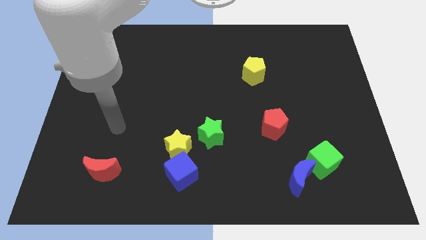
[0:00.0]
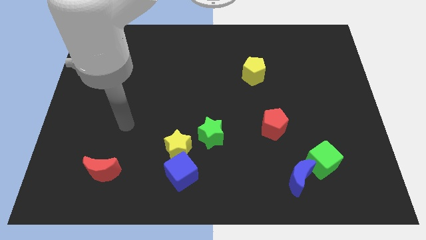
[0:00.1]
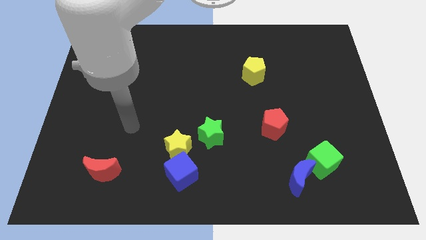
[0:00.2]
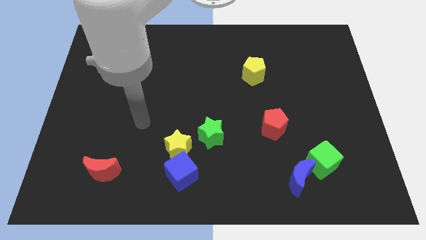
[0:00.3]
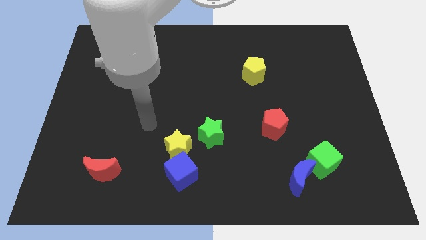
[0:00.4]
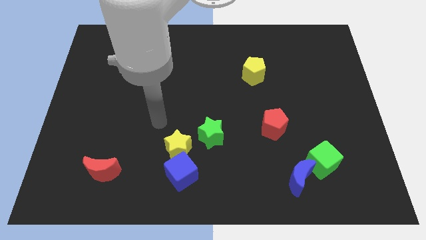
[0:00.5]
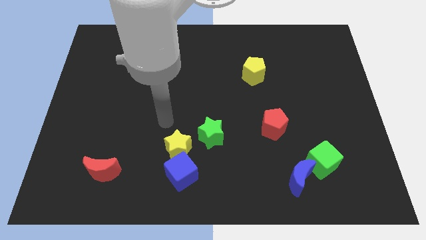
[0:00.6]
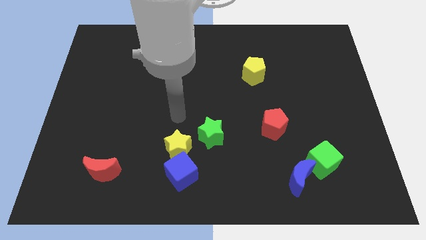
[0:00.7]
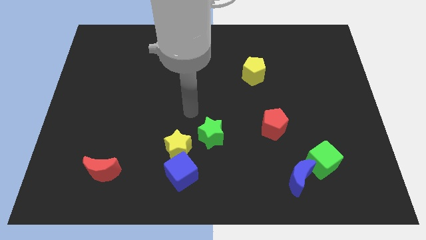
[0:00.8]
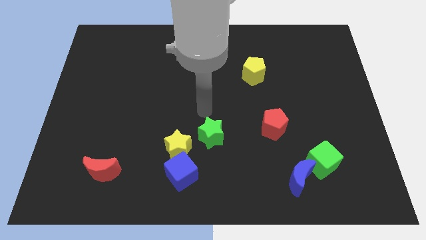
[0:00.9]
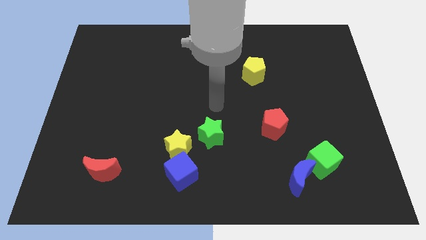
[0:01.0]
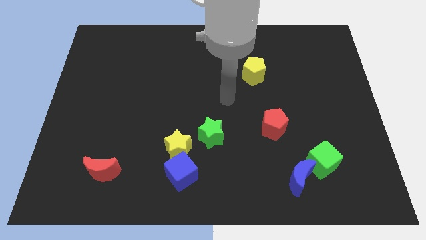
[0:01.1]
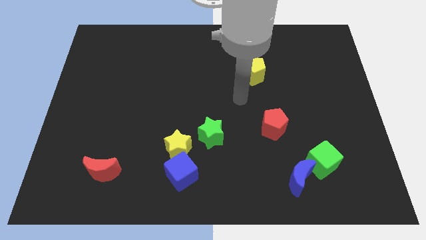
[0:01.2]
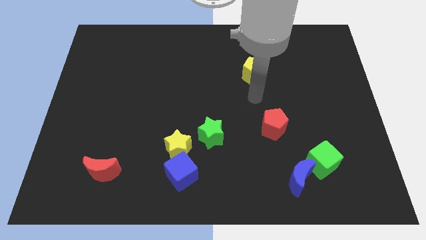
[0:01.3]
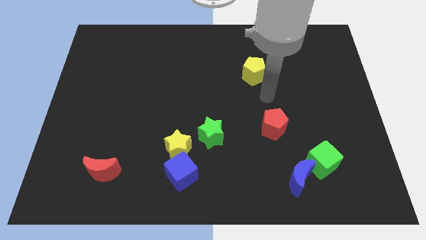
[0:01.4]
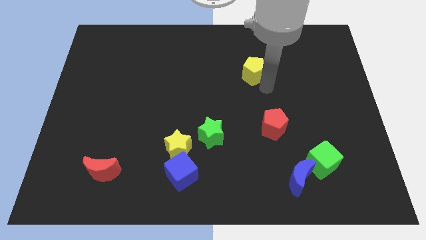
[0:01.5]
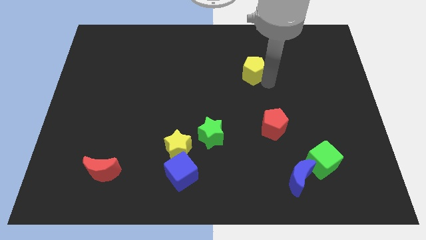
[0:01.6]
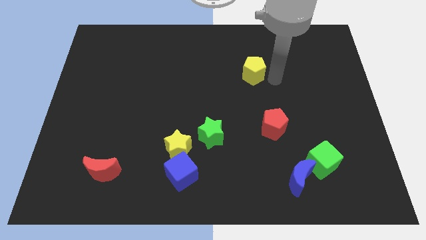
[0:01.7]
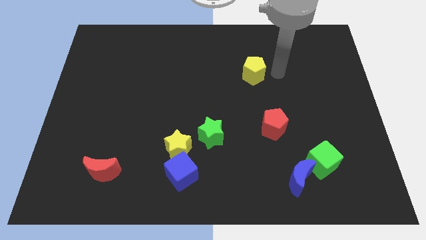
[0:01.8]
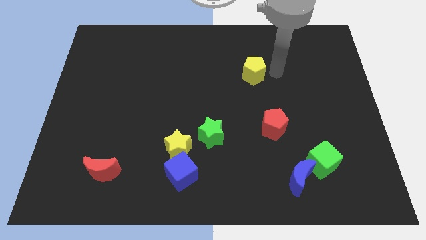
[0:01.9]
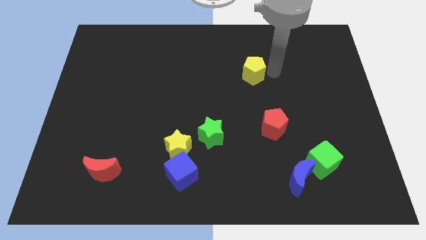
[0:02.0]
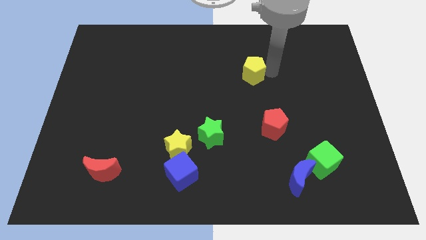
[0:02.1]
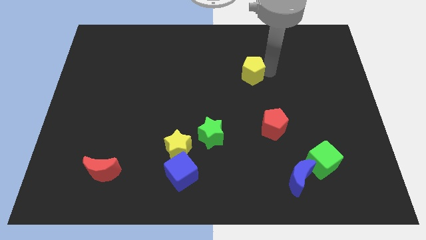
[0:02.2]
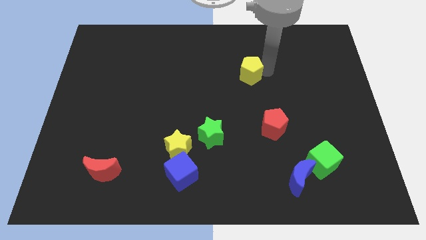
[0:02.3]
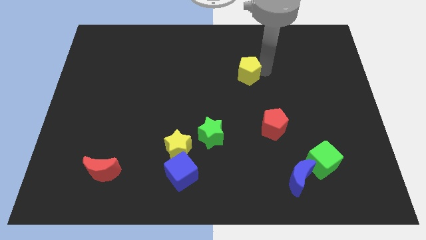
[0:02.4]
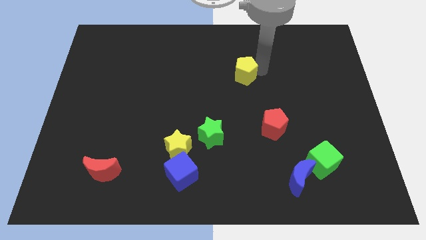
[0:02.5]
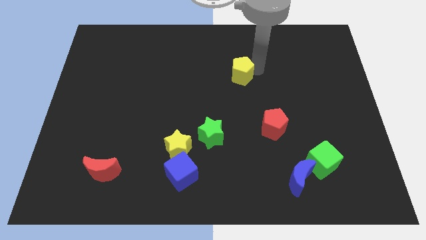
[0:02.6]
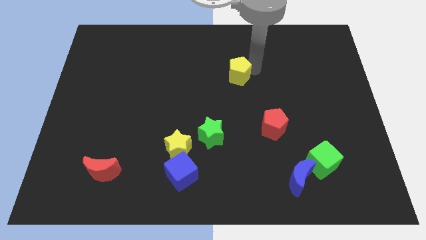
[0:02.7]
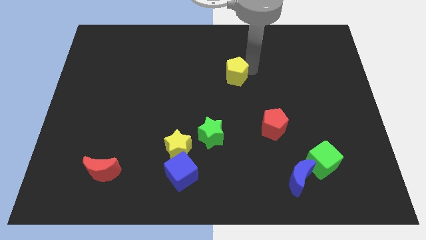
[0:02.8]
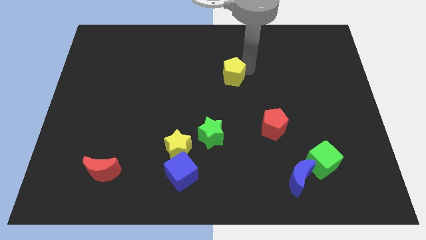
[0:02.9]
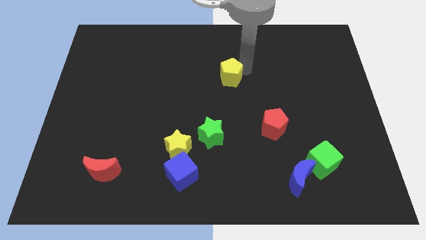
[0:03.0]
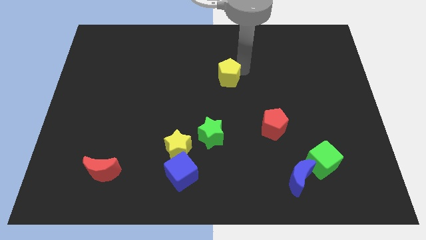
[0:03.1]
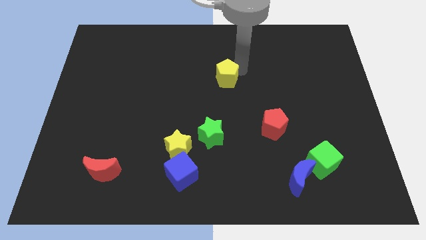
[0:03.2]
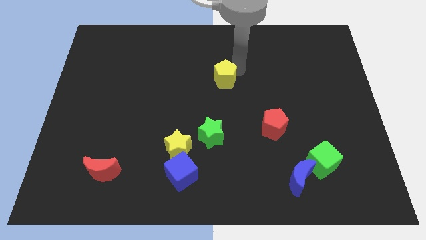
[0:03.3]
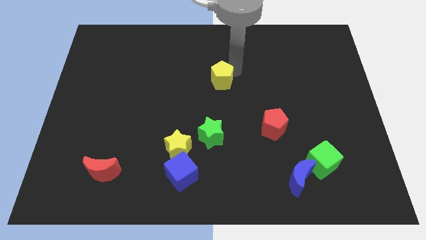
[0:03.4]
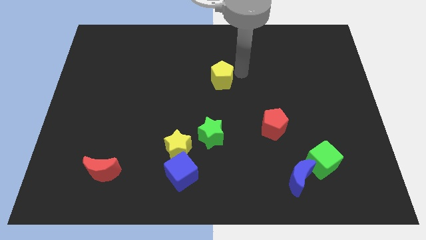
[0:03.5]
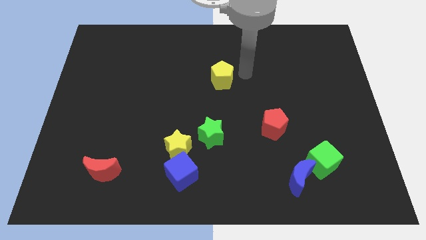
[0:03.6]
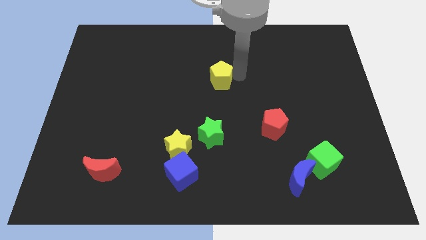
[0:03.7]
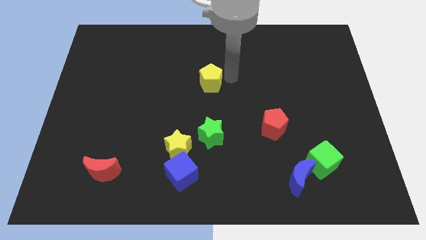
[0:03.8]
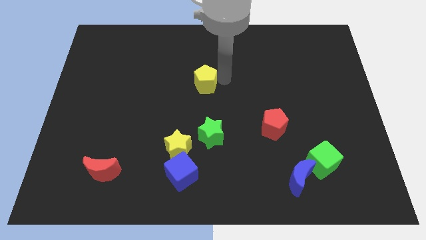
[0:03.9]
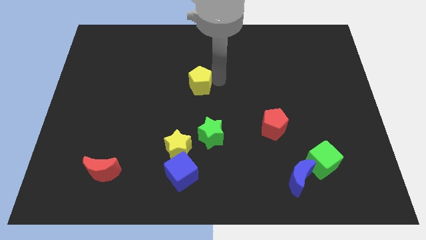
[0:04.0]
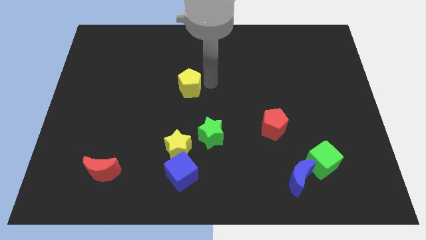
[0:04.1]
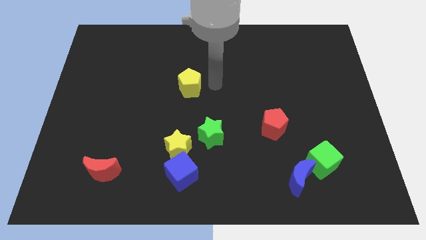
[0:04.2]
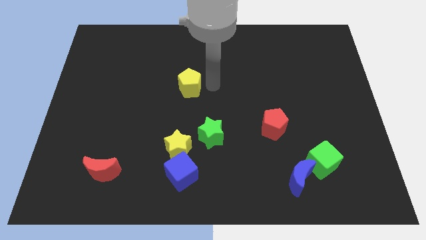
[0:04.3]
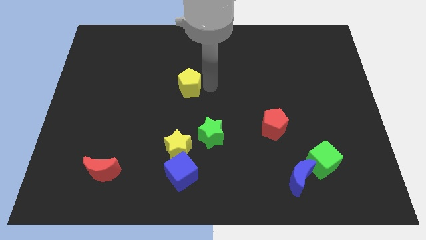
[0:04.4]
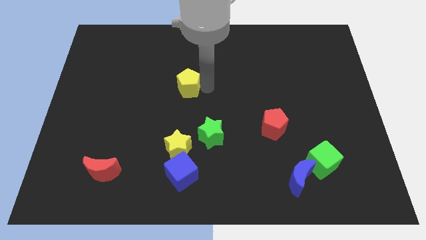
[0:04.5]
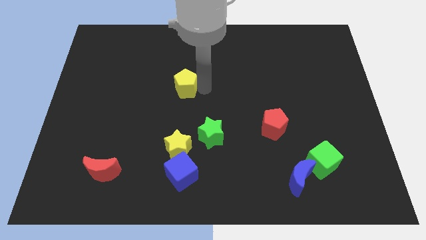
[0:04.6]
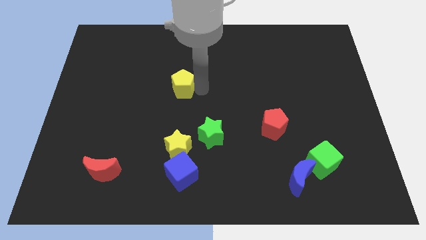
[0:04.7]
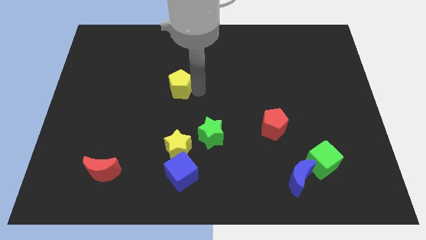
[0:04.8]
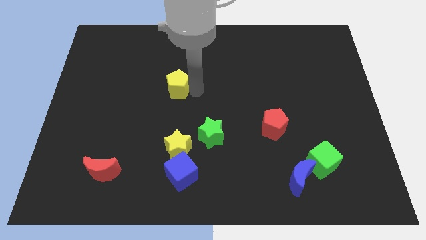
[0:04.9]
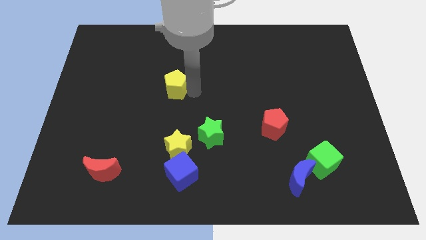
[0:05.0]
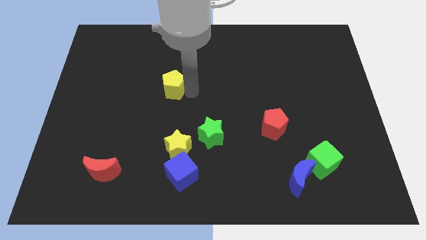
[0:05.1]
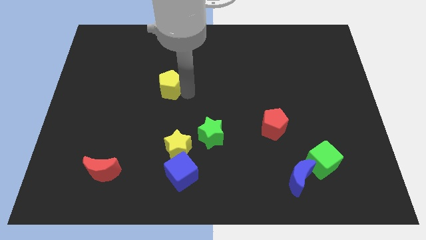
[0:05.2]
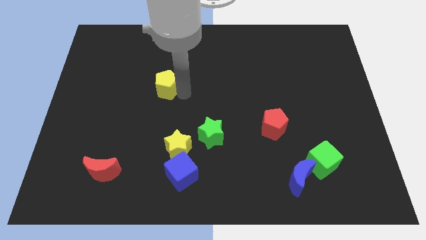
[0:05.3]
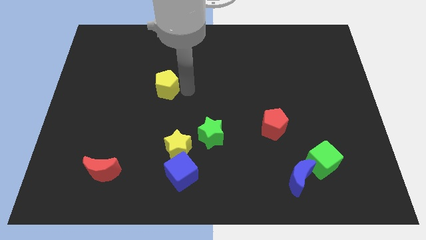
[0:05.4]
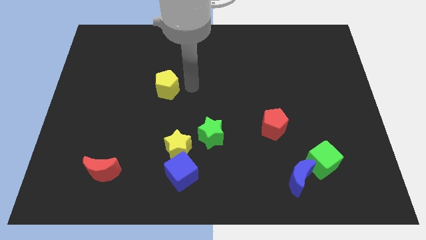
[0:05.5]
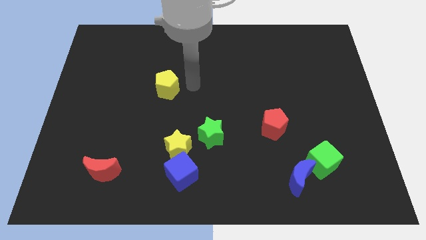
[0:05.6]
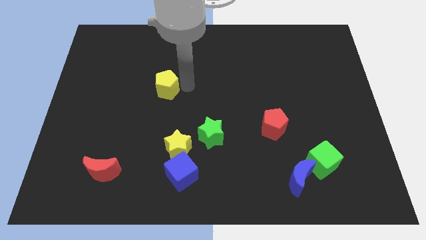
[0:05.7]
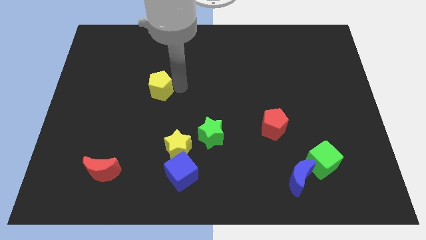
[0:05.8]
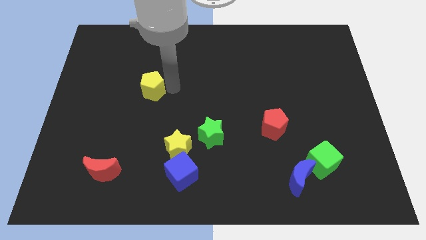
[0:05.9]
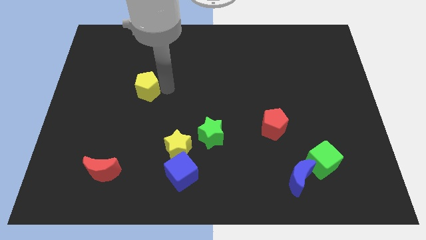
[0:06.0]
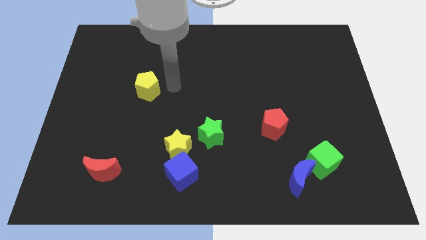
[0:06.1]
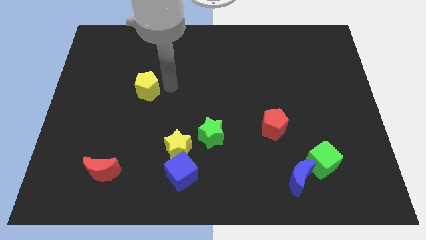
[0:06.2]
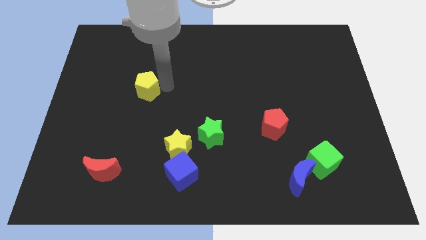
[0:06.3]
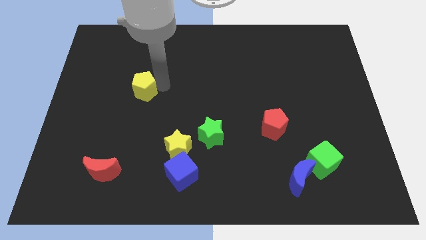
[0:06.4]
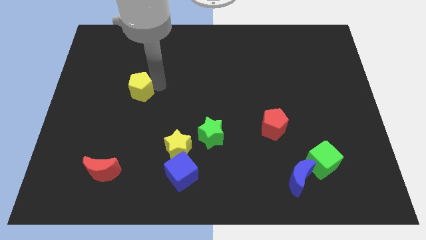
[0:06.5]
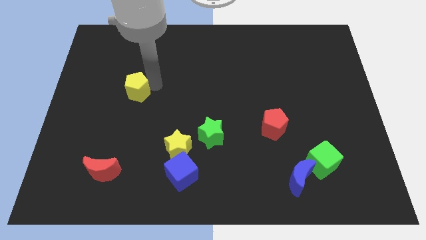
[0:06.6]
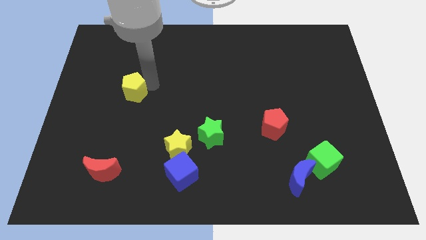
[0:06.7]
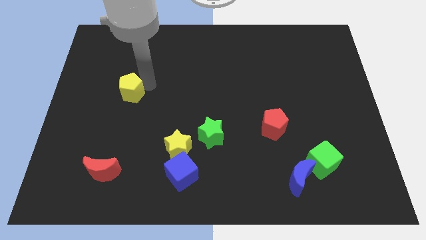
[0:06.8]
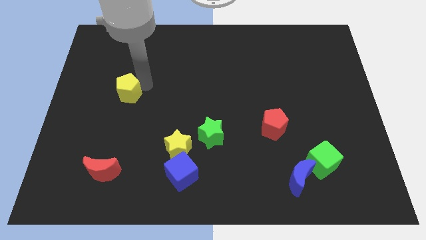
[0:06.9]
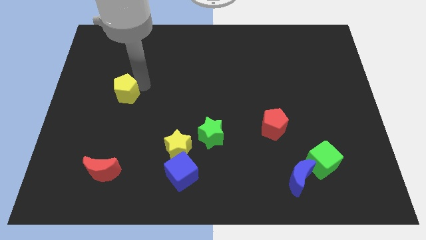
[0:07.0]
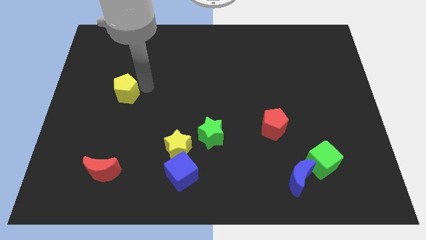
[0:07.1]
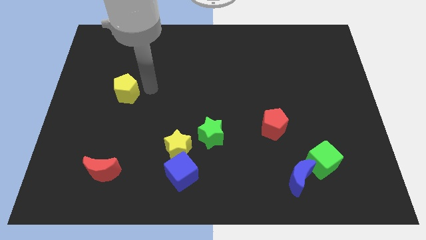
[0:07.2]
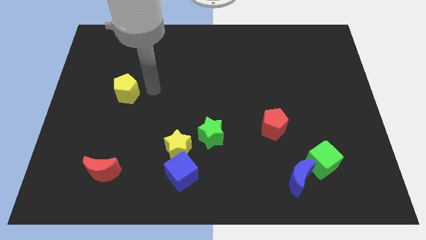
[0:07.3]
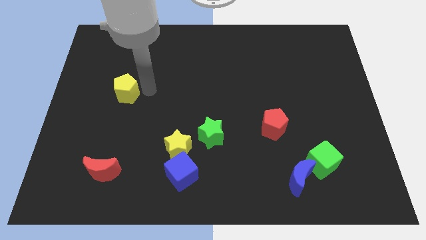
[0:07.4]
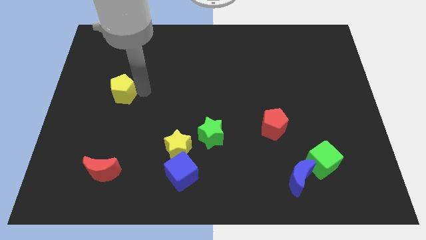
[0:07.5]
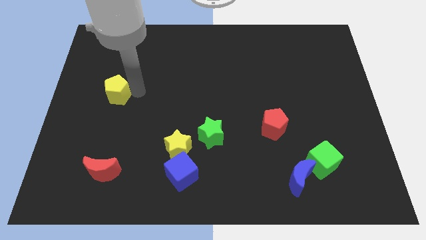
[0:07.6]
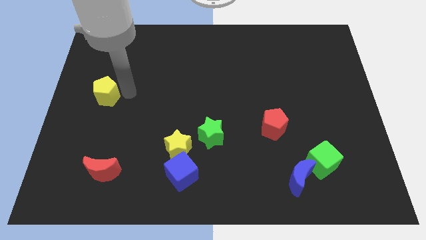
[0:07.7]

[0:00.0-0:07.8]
push the yellow pentagon to the left side of the board
